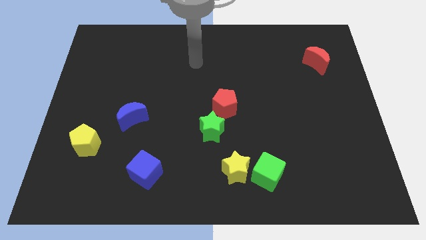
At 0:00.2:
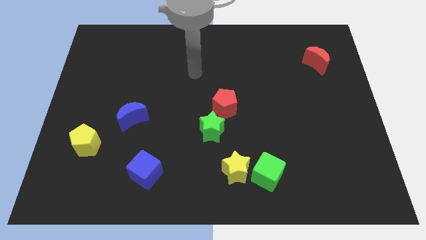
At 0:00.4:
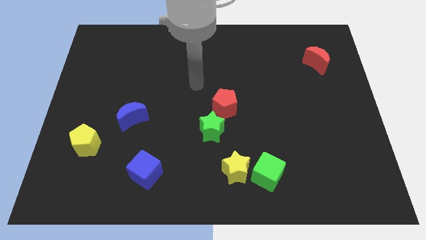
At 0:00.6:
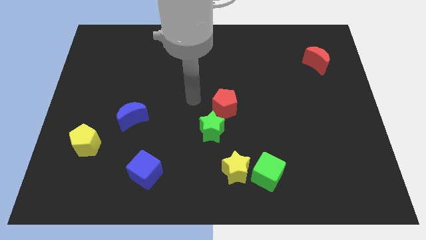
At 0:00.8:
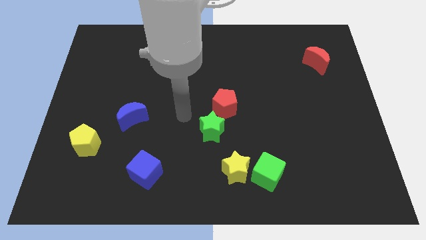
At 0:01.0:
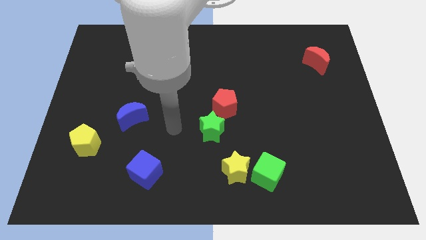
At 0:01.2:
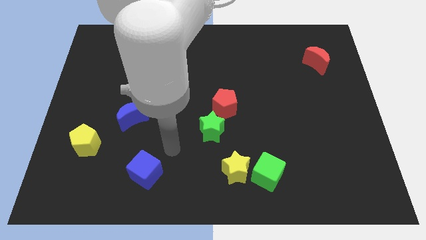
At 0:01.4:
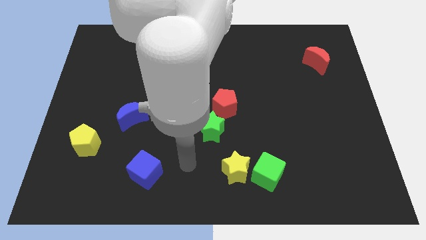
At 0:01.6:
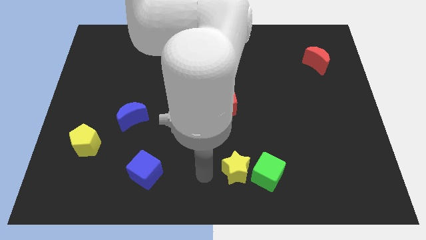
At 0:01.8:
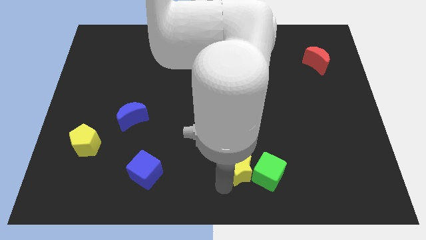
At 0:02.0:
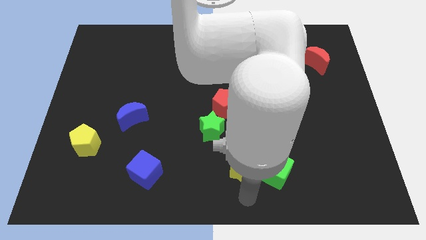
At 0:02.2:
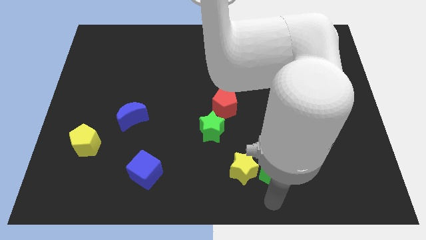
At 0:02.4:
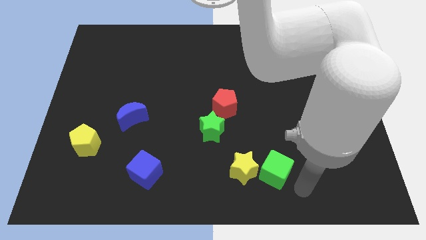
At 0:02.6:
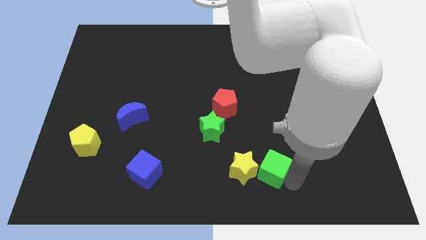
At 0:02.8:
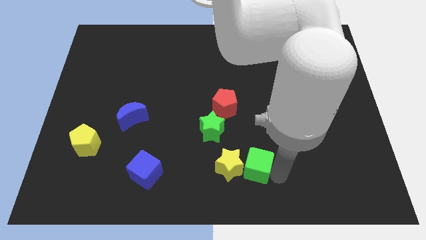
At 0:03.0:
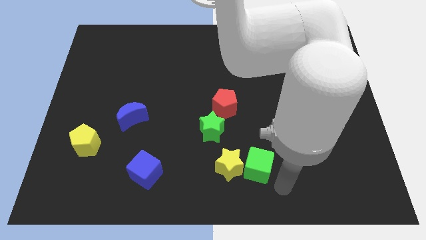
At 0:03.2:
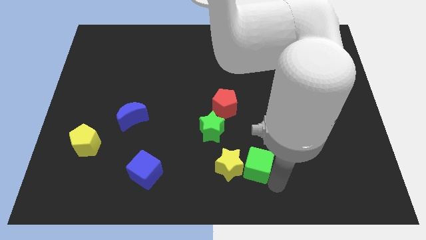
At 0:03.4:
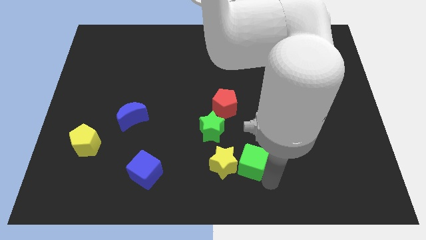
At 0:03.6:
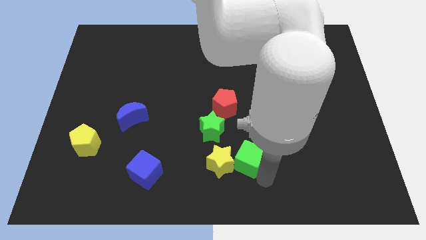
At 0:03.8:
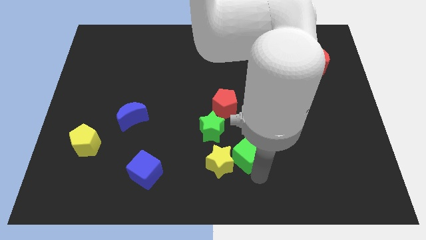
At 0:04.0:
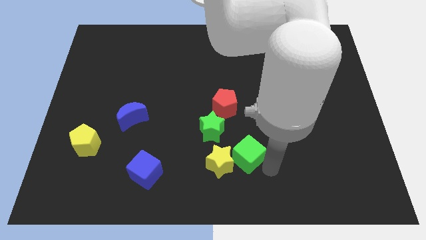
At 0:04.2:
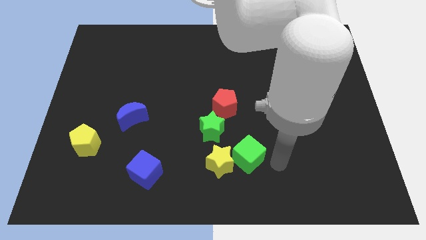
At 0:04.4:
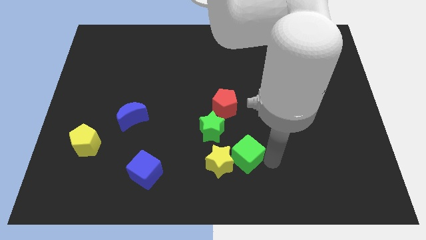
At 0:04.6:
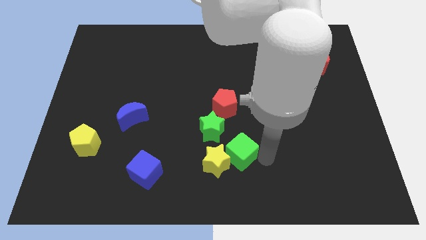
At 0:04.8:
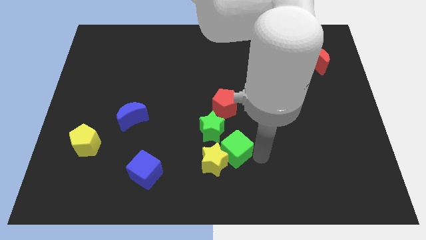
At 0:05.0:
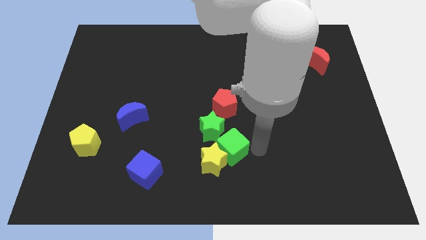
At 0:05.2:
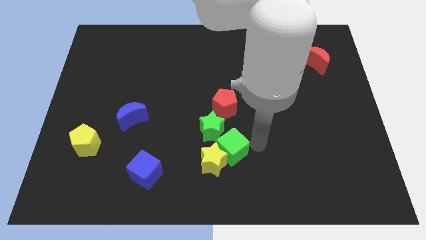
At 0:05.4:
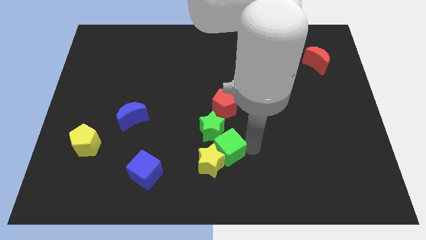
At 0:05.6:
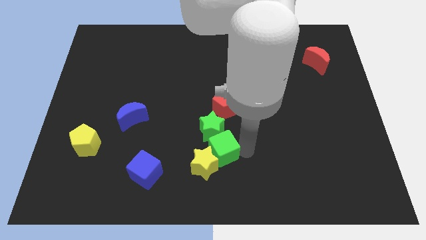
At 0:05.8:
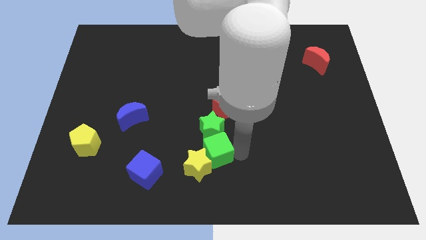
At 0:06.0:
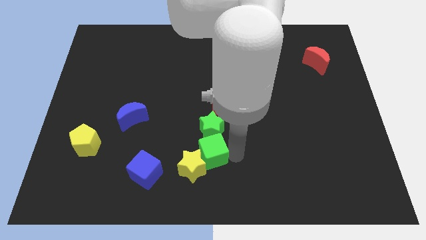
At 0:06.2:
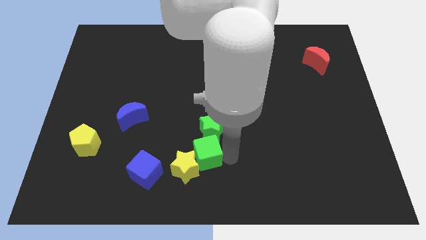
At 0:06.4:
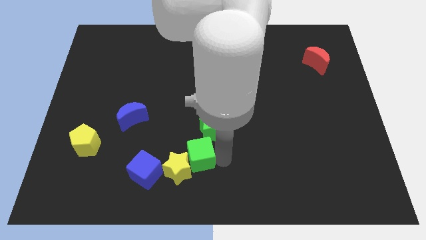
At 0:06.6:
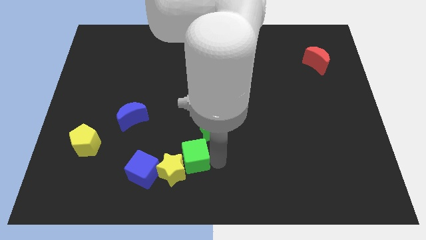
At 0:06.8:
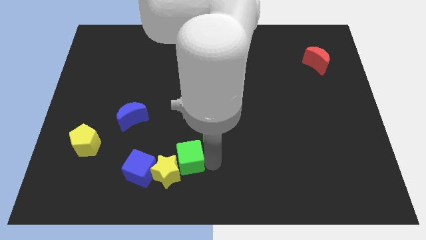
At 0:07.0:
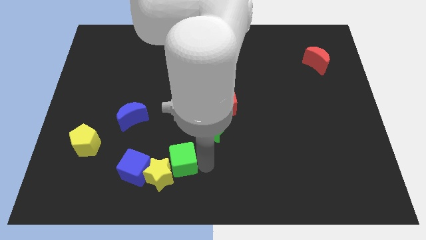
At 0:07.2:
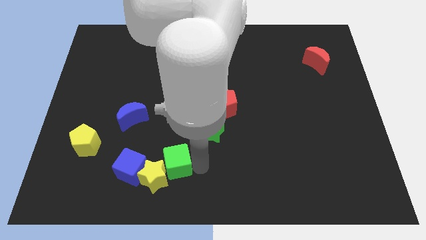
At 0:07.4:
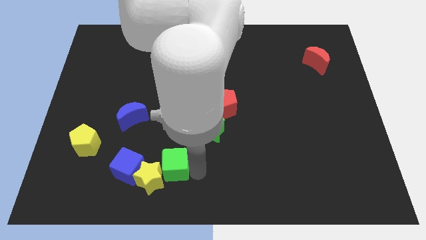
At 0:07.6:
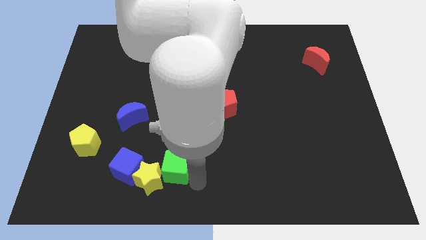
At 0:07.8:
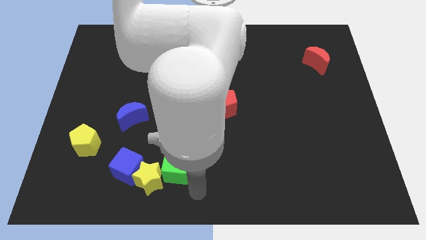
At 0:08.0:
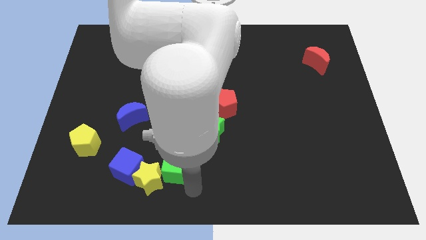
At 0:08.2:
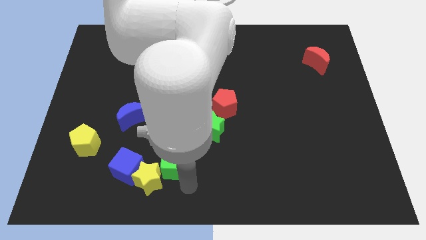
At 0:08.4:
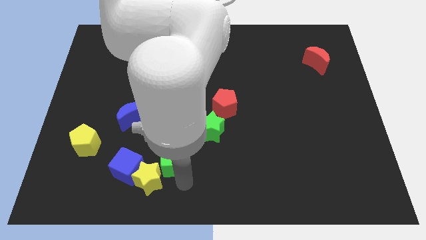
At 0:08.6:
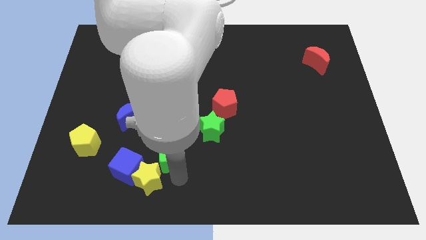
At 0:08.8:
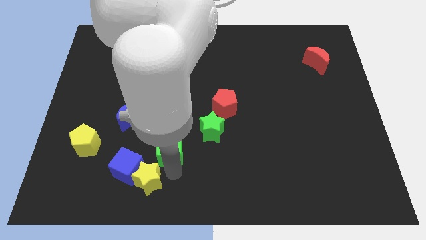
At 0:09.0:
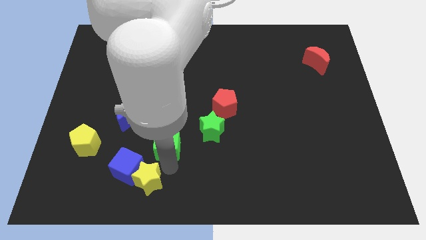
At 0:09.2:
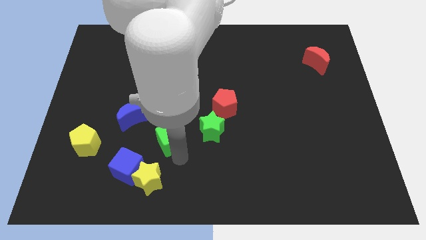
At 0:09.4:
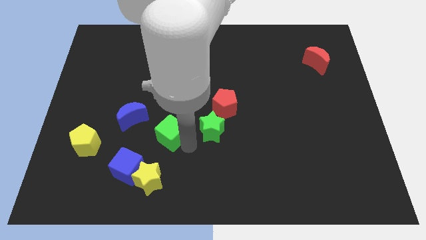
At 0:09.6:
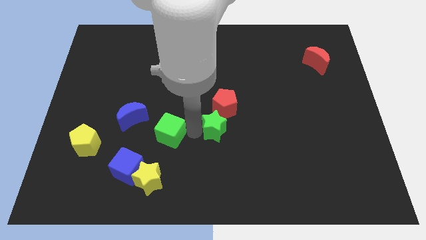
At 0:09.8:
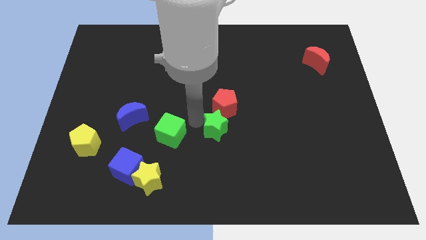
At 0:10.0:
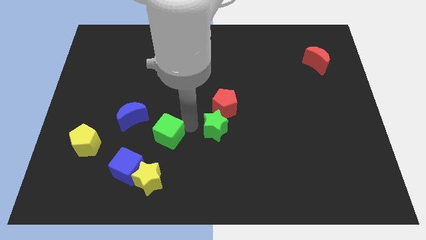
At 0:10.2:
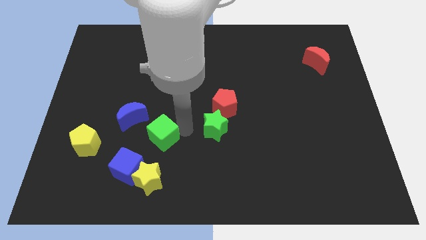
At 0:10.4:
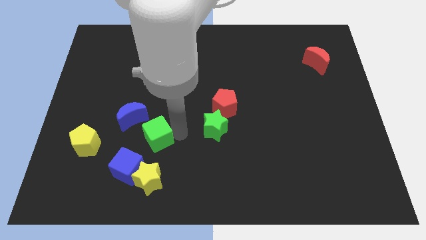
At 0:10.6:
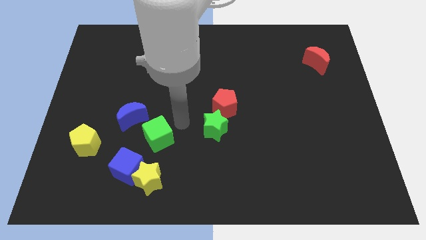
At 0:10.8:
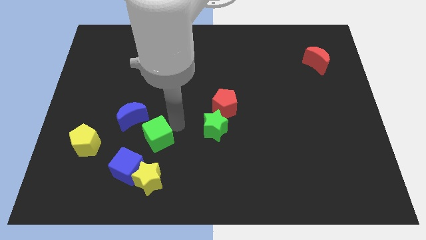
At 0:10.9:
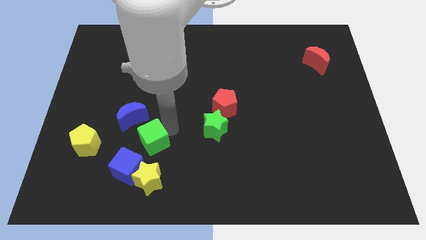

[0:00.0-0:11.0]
move the green cube to the left

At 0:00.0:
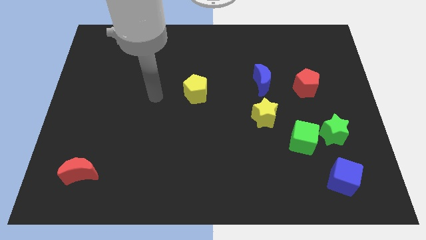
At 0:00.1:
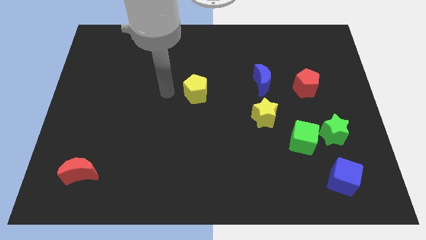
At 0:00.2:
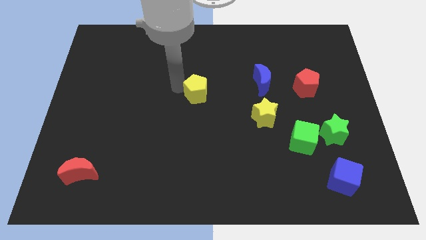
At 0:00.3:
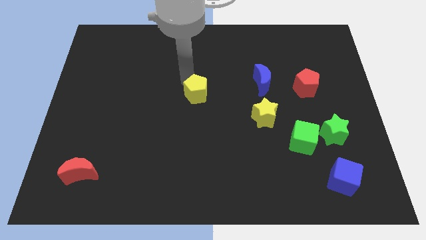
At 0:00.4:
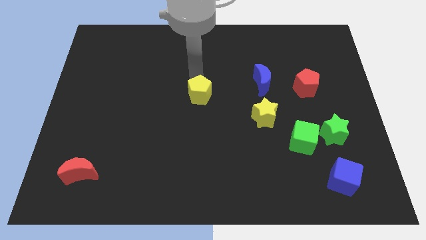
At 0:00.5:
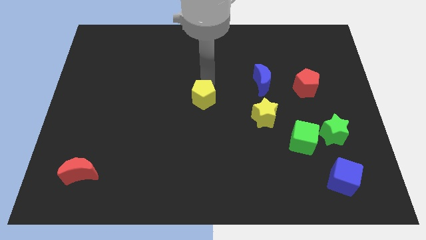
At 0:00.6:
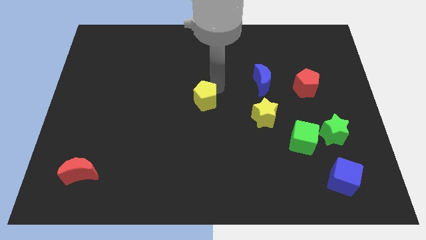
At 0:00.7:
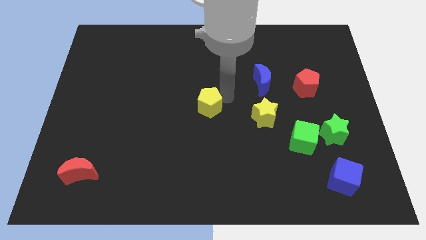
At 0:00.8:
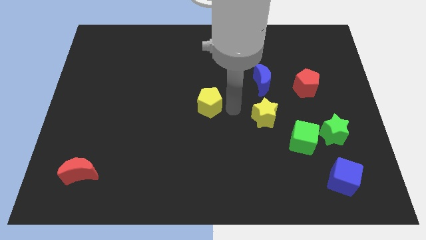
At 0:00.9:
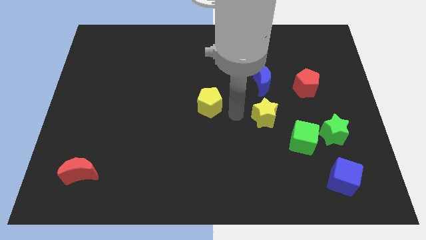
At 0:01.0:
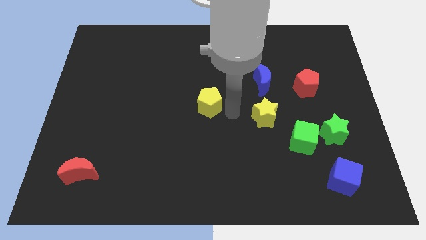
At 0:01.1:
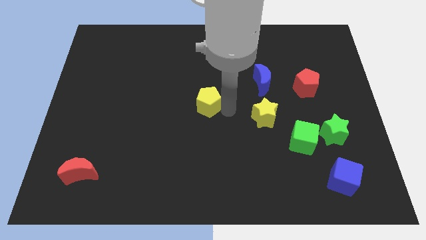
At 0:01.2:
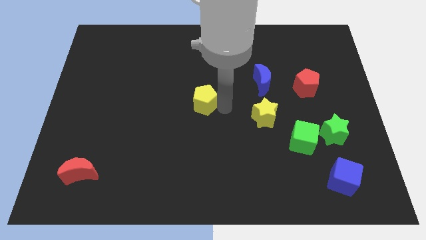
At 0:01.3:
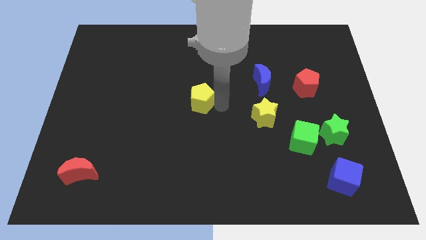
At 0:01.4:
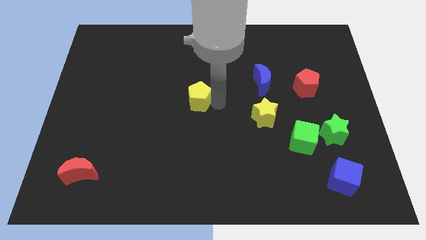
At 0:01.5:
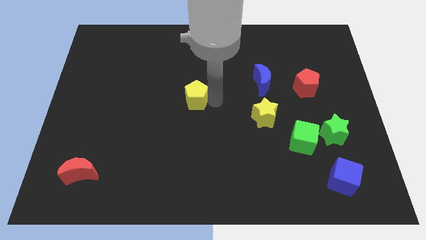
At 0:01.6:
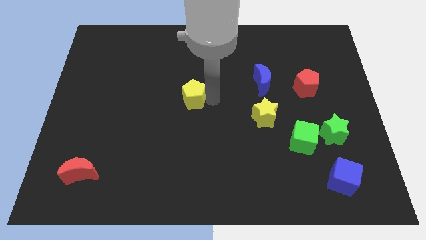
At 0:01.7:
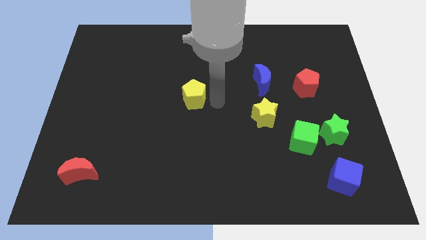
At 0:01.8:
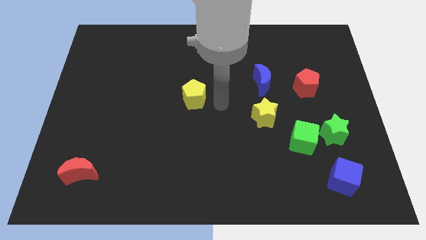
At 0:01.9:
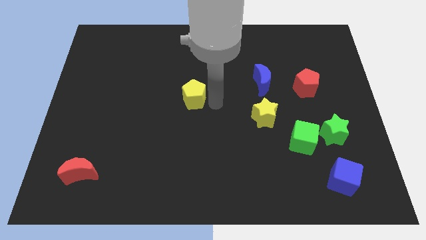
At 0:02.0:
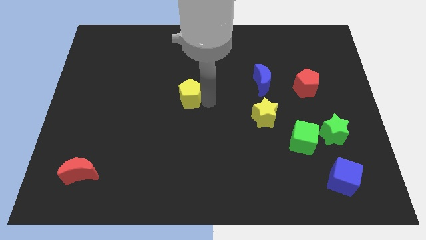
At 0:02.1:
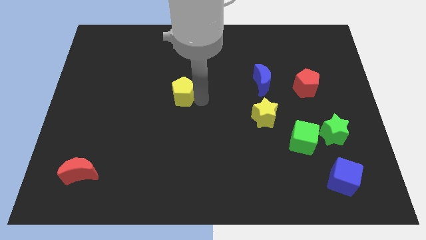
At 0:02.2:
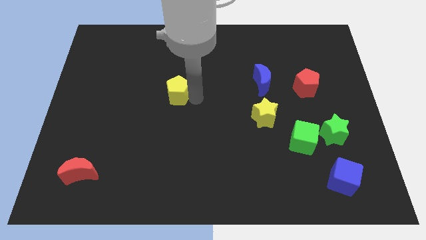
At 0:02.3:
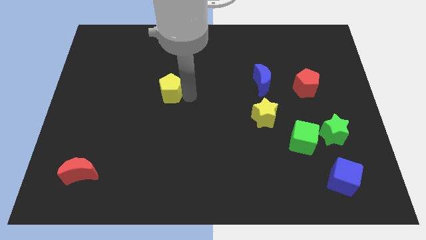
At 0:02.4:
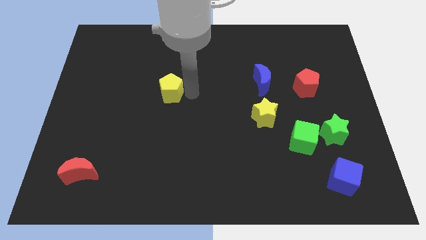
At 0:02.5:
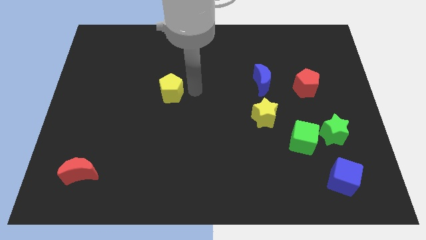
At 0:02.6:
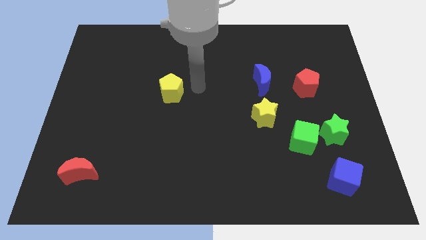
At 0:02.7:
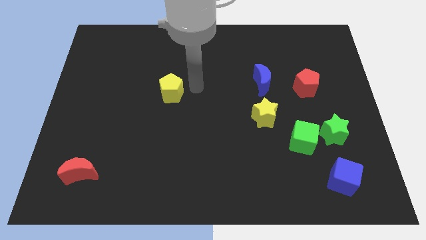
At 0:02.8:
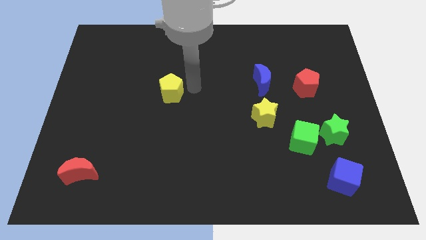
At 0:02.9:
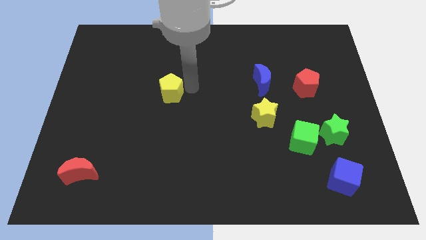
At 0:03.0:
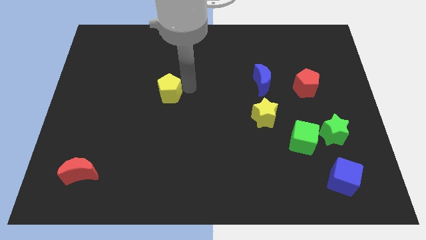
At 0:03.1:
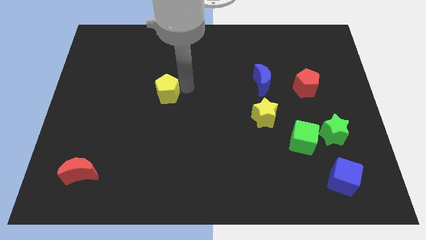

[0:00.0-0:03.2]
slide the yellow pentagon somewhat to the left
